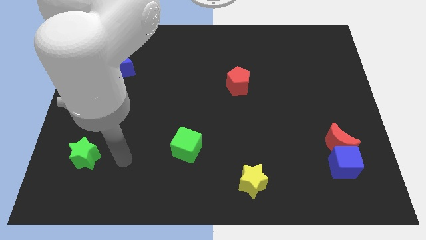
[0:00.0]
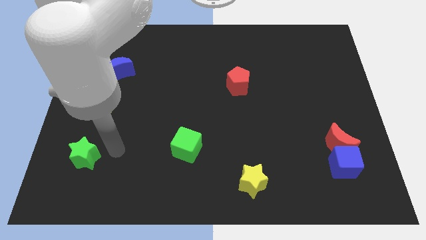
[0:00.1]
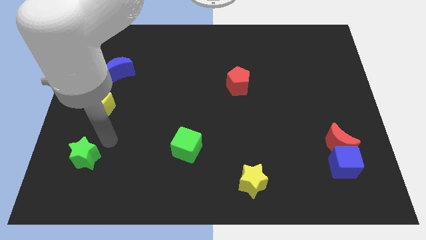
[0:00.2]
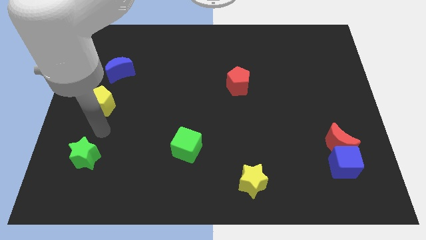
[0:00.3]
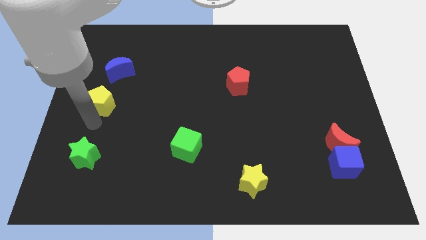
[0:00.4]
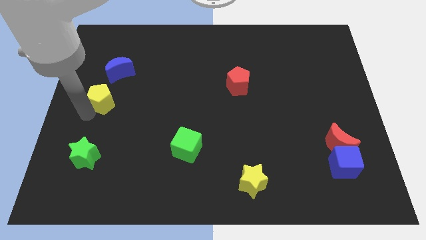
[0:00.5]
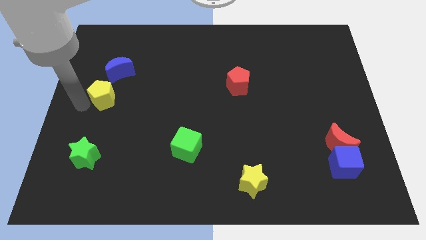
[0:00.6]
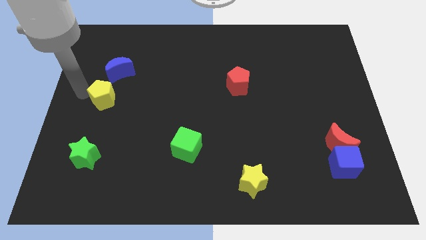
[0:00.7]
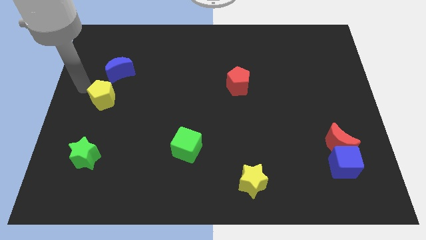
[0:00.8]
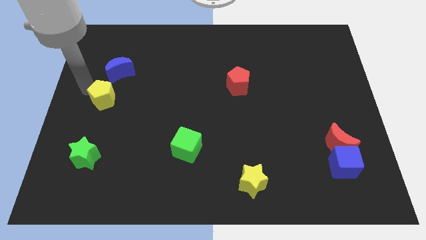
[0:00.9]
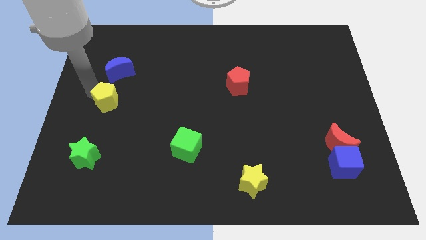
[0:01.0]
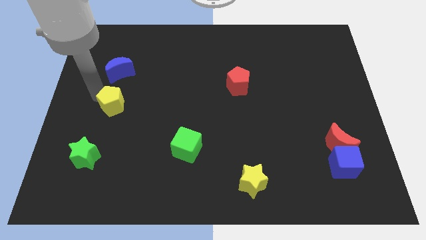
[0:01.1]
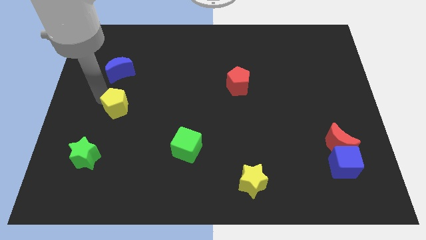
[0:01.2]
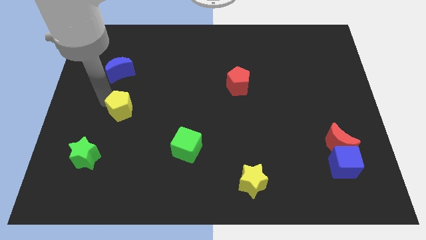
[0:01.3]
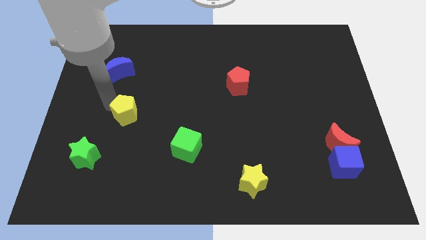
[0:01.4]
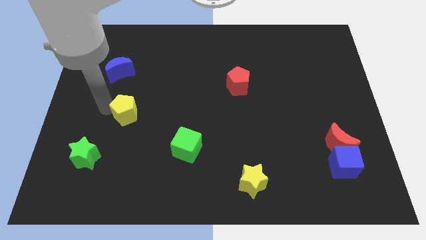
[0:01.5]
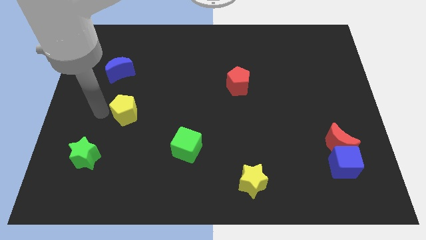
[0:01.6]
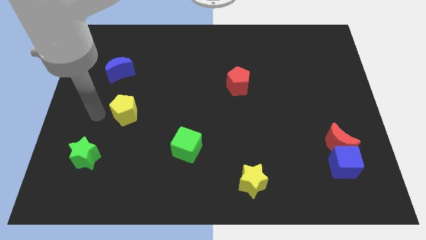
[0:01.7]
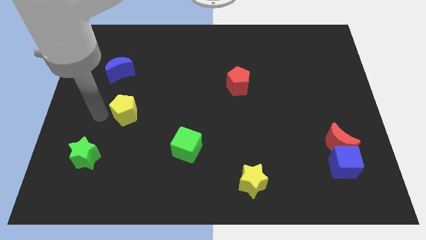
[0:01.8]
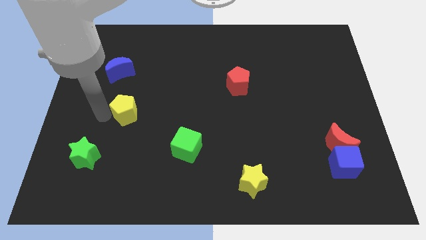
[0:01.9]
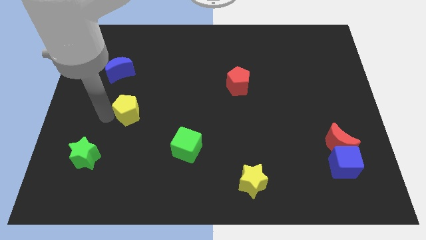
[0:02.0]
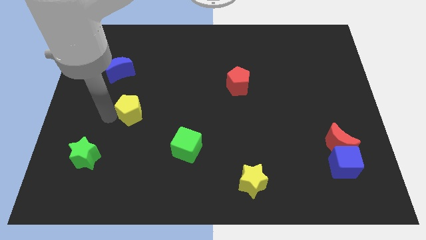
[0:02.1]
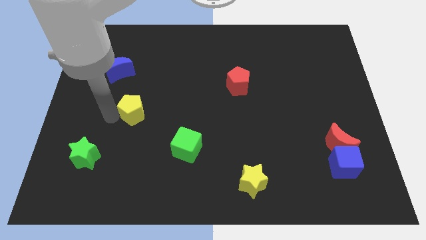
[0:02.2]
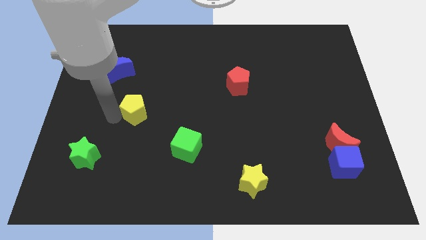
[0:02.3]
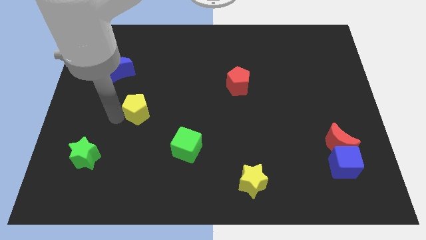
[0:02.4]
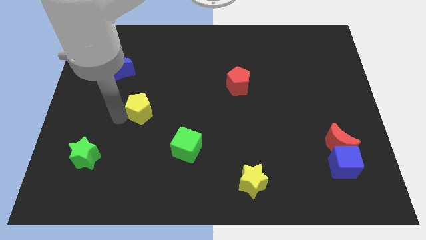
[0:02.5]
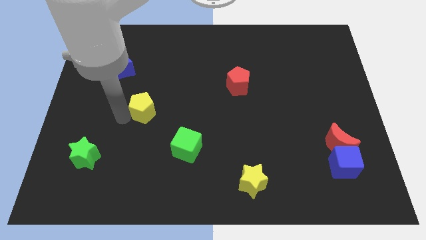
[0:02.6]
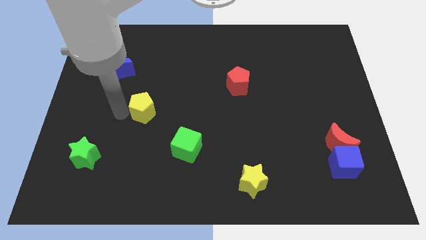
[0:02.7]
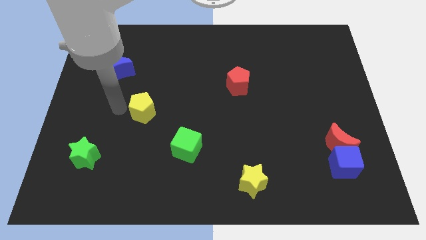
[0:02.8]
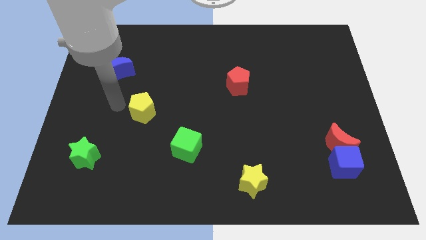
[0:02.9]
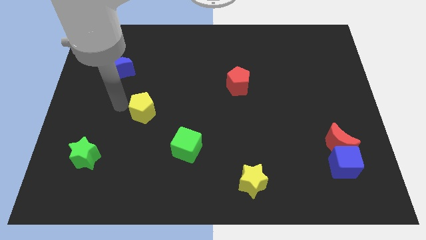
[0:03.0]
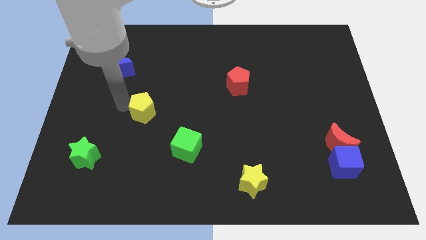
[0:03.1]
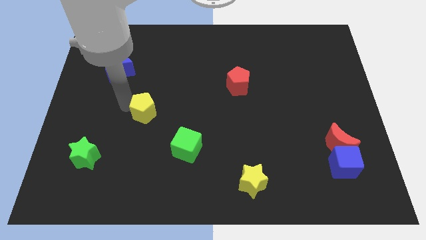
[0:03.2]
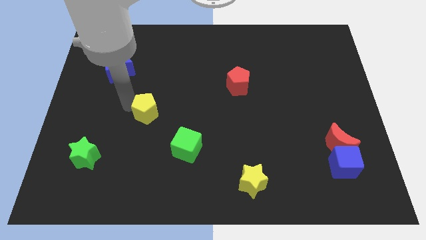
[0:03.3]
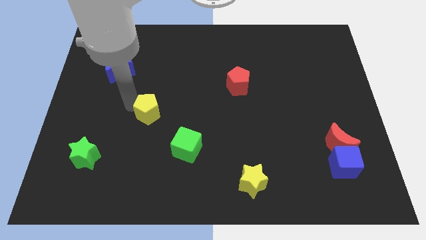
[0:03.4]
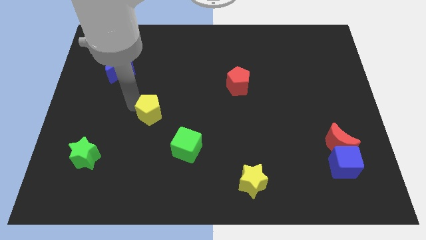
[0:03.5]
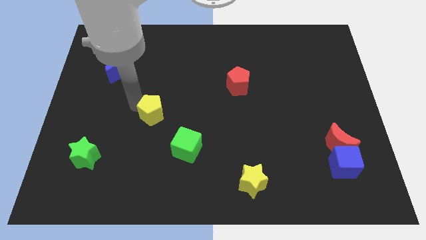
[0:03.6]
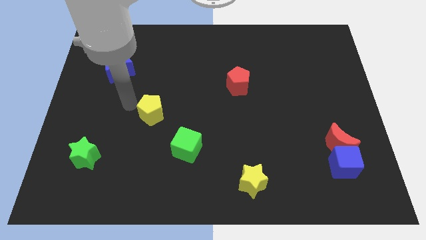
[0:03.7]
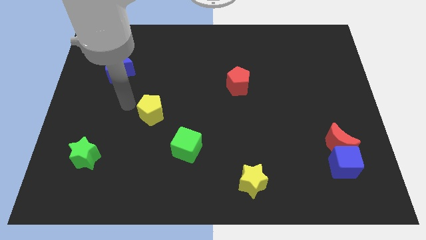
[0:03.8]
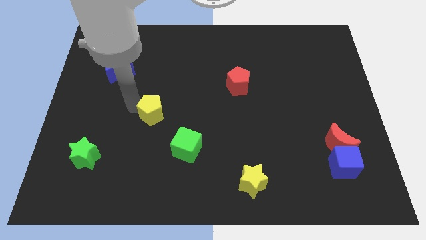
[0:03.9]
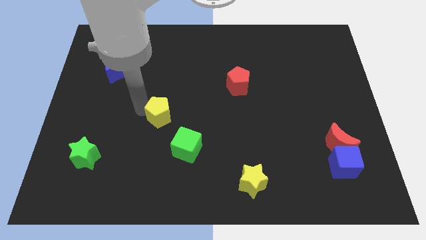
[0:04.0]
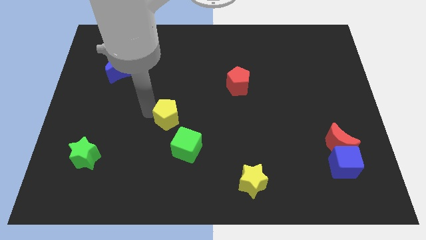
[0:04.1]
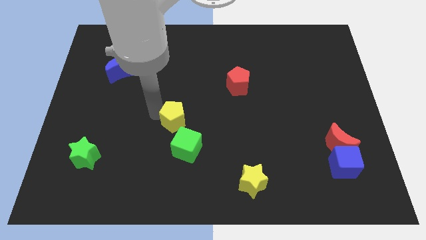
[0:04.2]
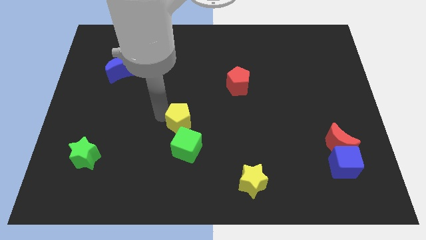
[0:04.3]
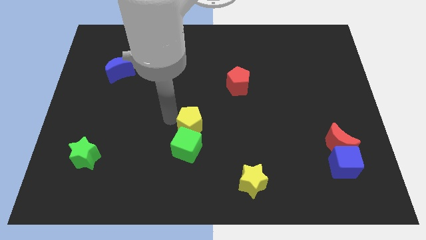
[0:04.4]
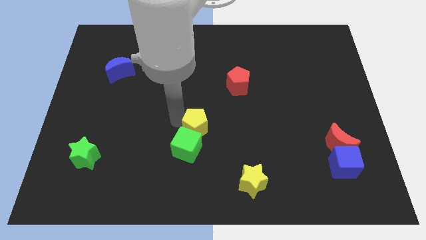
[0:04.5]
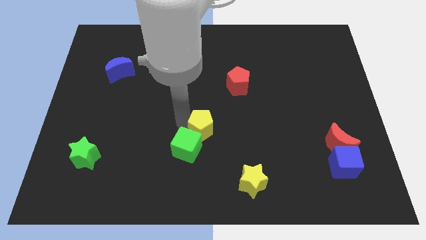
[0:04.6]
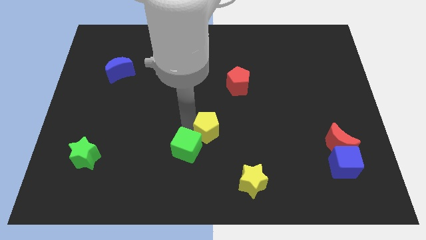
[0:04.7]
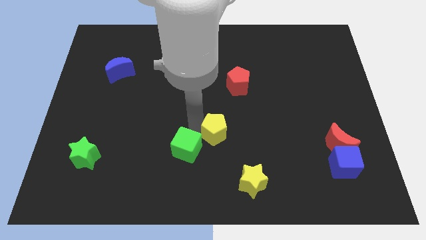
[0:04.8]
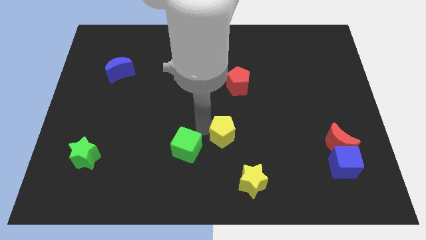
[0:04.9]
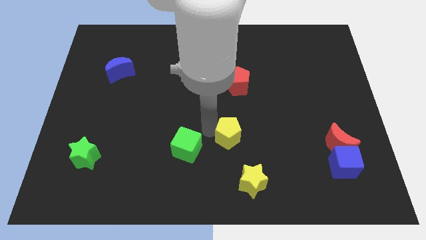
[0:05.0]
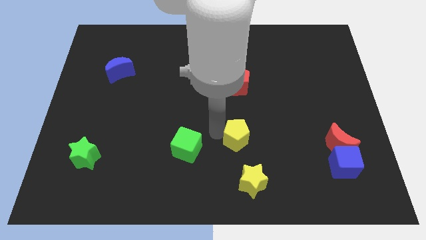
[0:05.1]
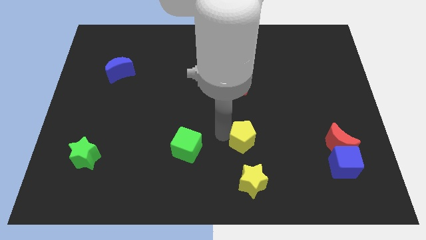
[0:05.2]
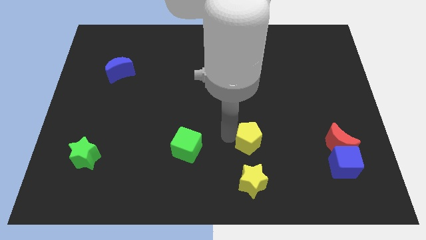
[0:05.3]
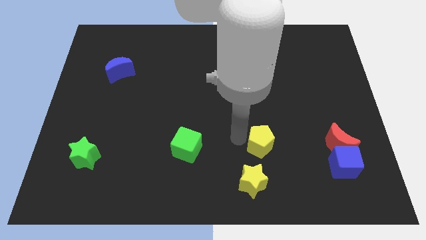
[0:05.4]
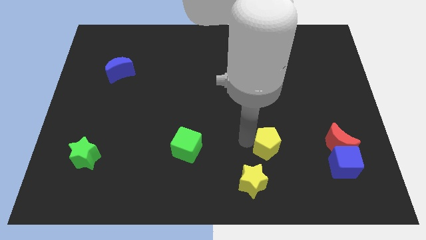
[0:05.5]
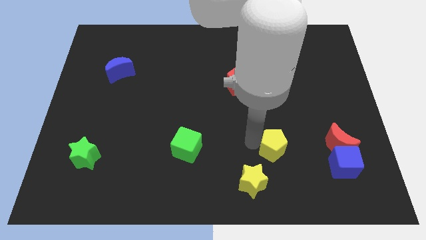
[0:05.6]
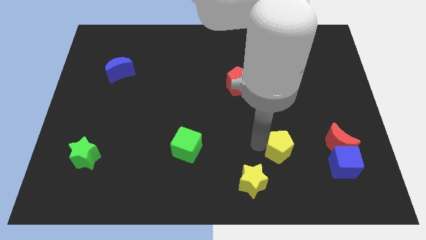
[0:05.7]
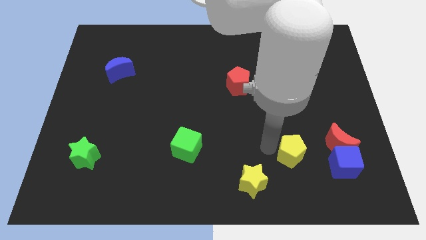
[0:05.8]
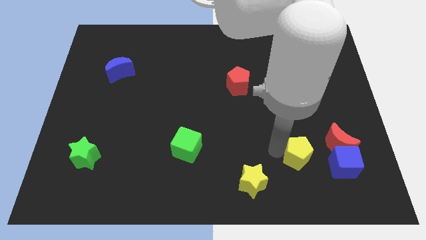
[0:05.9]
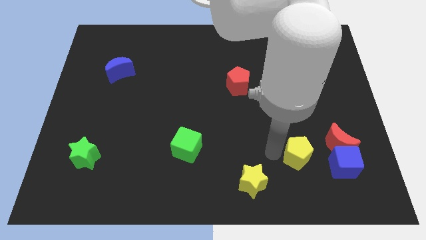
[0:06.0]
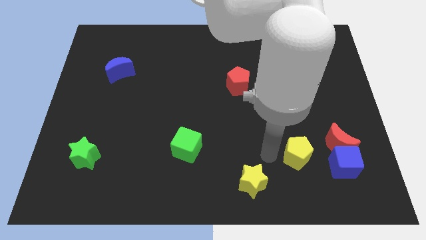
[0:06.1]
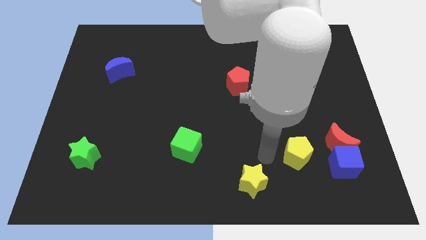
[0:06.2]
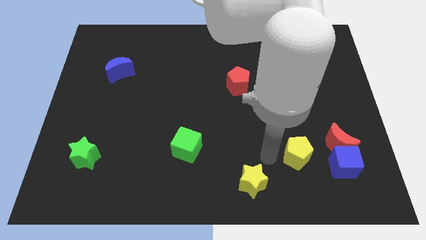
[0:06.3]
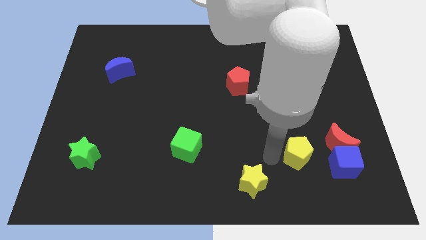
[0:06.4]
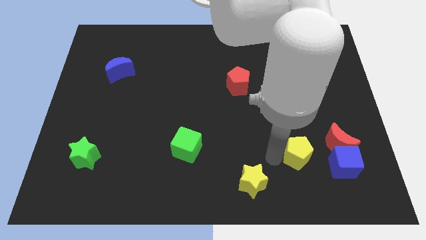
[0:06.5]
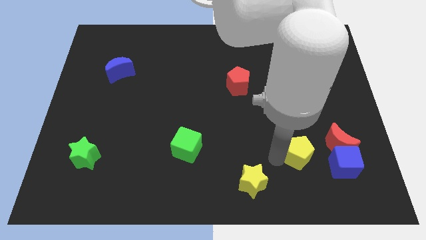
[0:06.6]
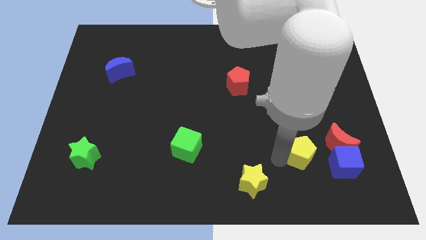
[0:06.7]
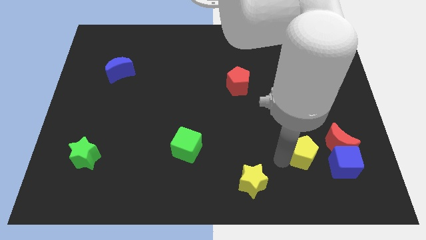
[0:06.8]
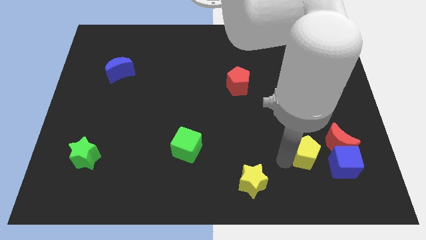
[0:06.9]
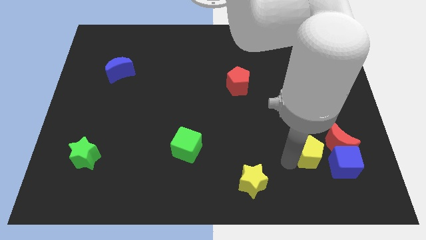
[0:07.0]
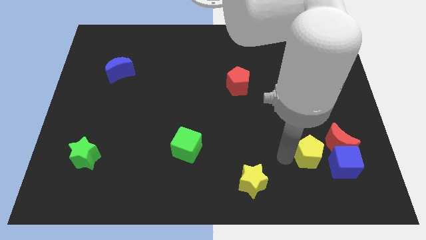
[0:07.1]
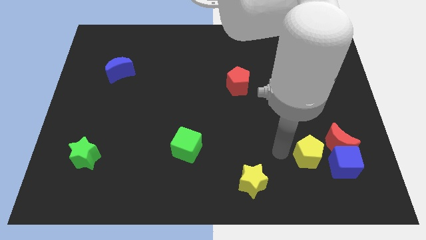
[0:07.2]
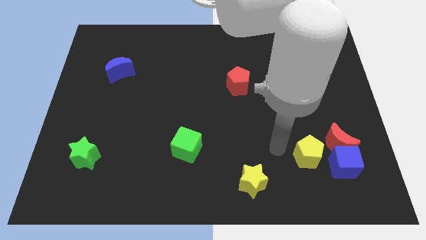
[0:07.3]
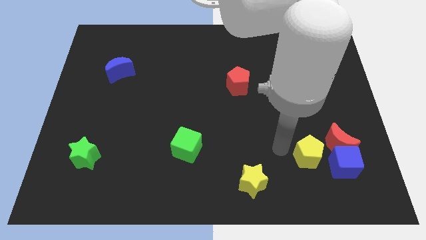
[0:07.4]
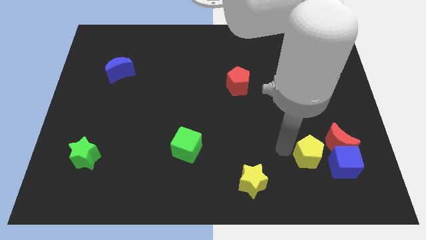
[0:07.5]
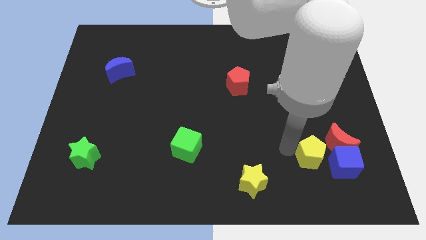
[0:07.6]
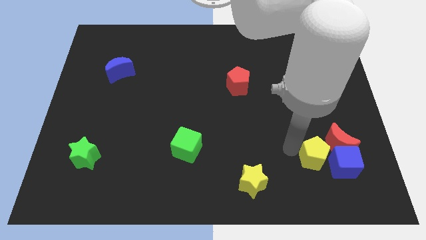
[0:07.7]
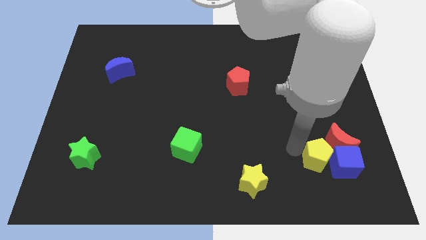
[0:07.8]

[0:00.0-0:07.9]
put the yellow pentagon to the blue cube
